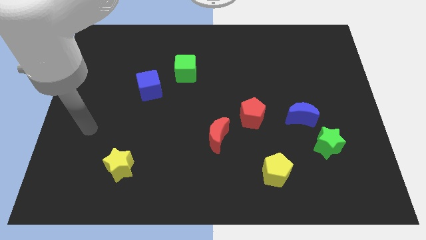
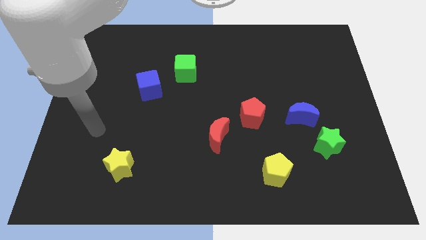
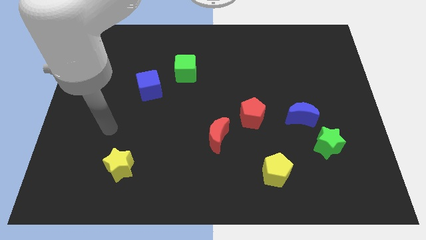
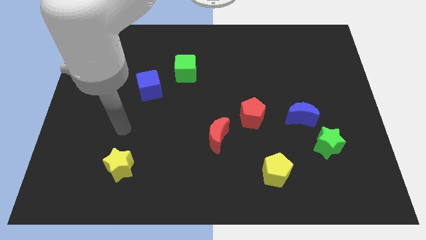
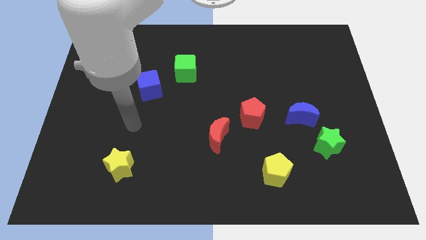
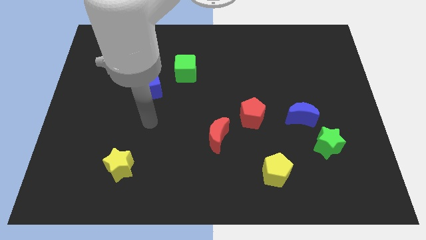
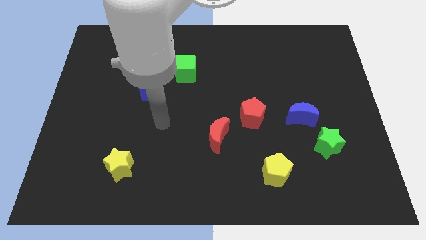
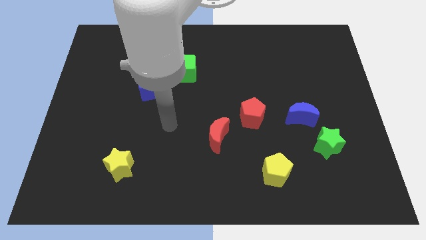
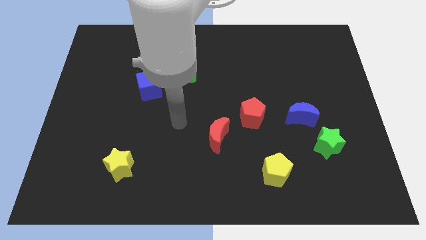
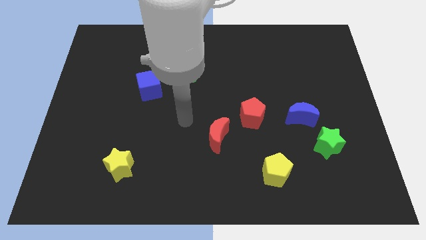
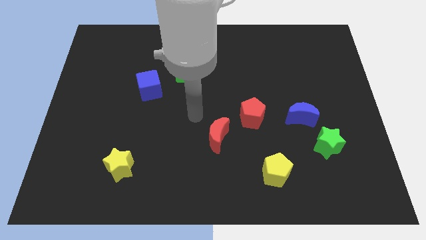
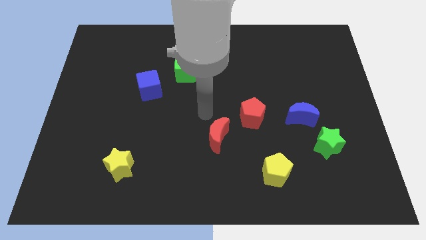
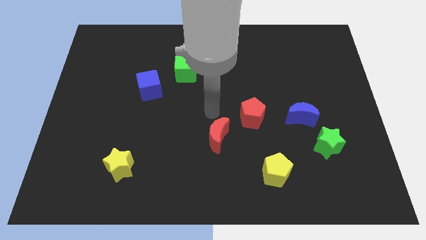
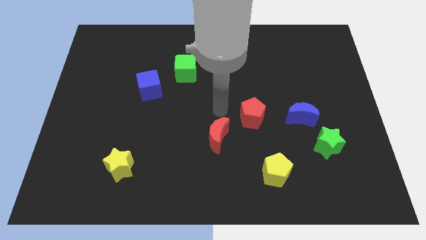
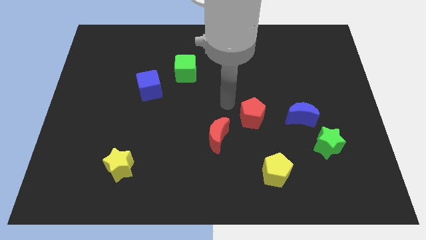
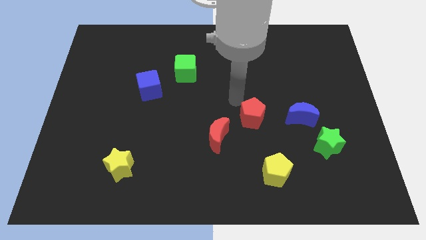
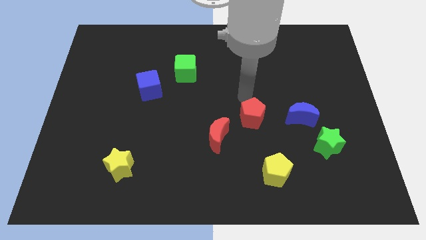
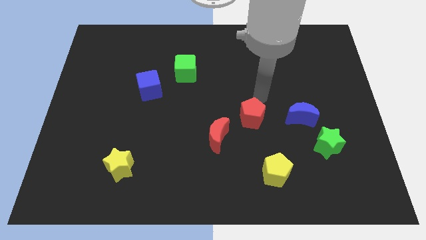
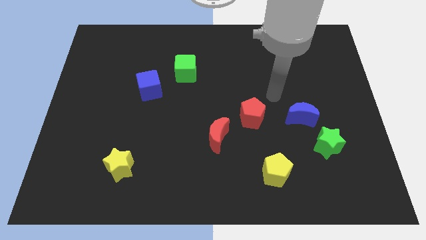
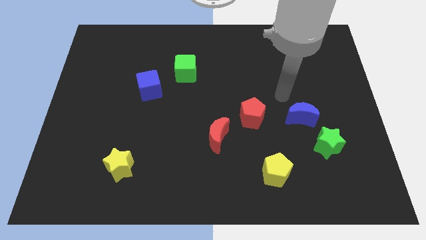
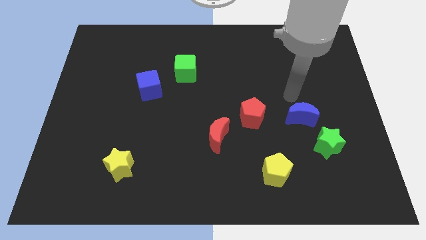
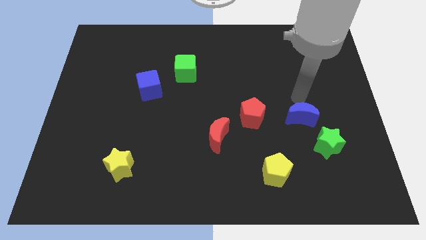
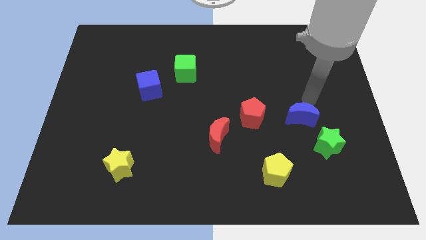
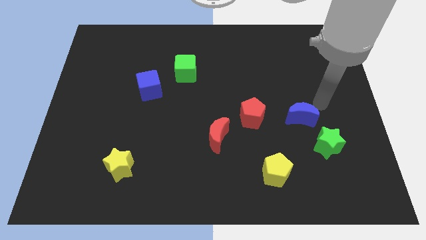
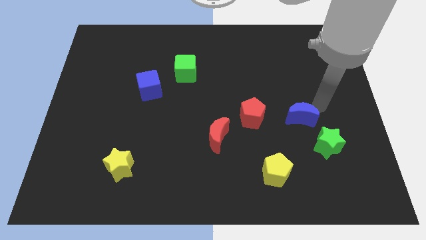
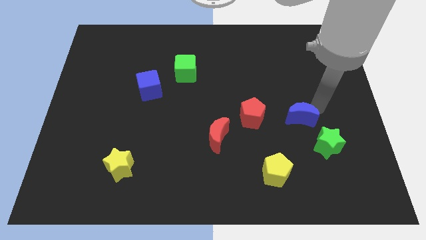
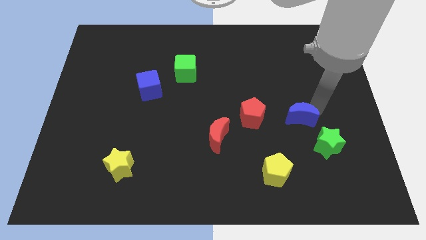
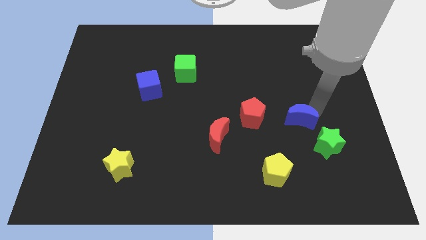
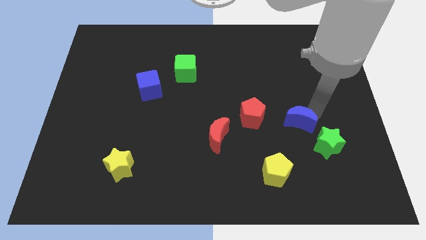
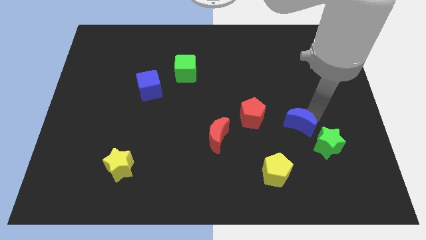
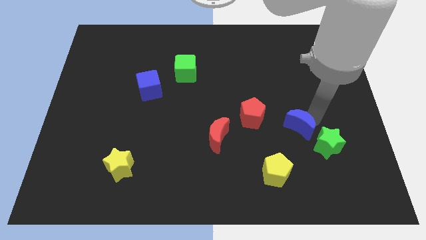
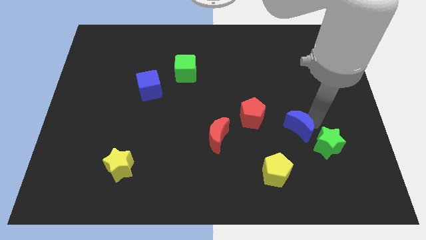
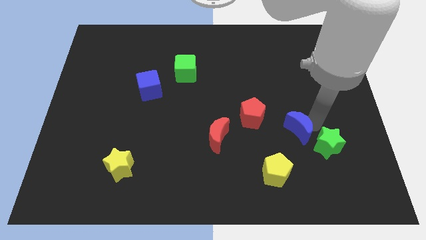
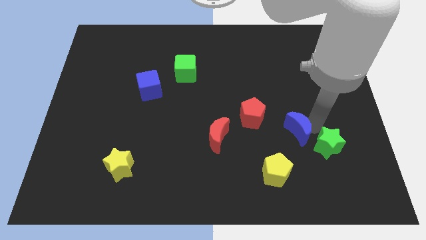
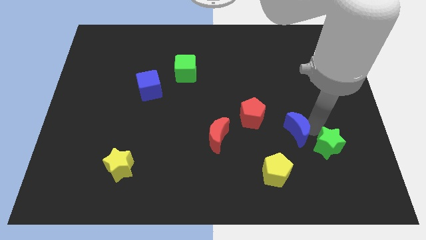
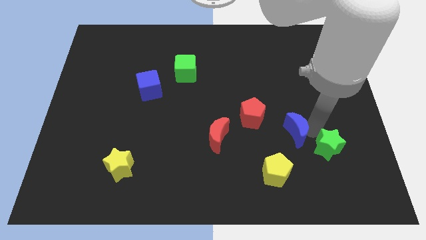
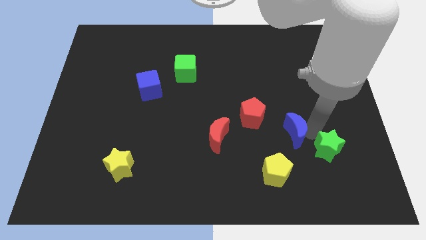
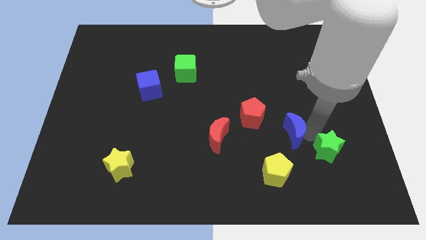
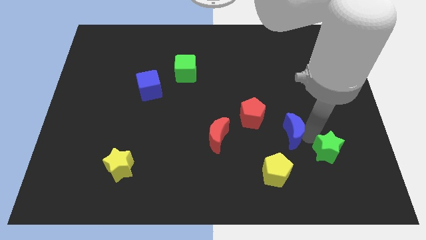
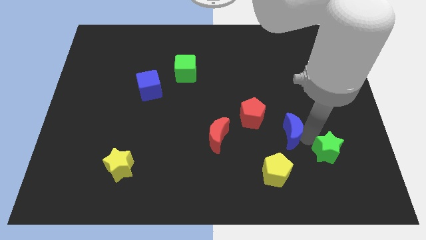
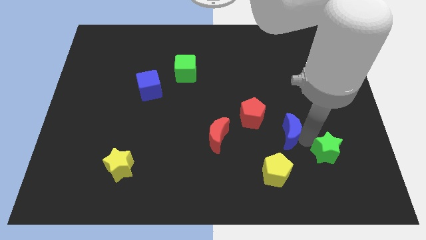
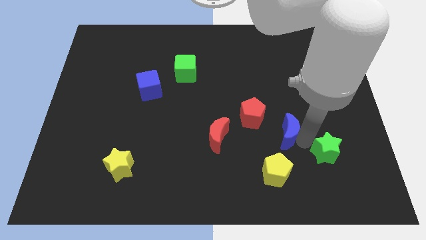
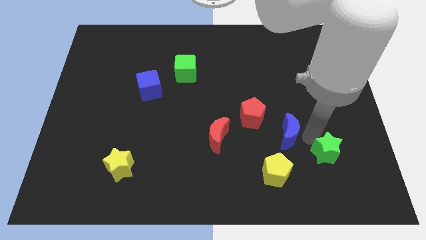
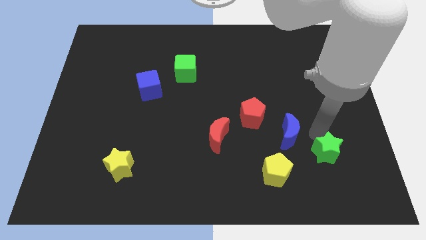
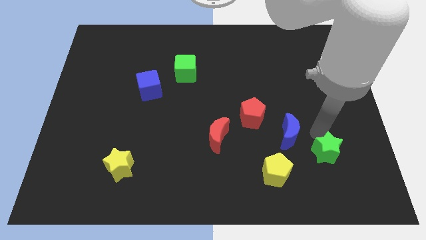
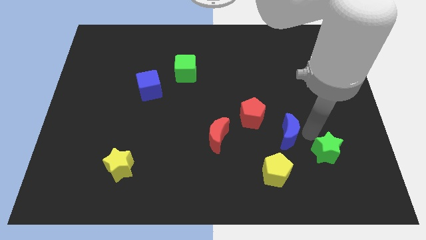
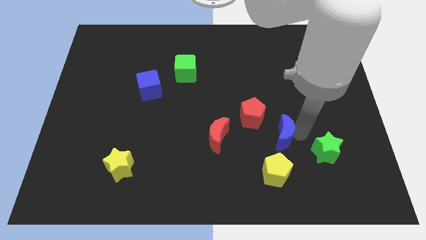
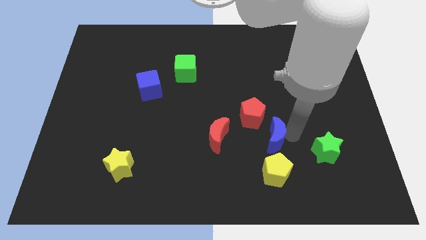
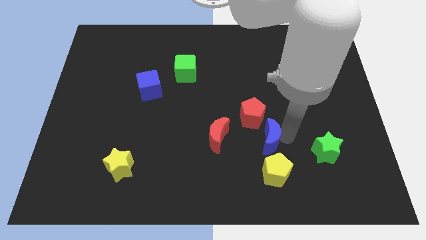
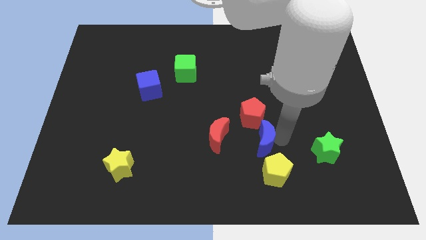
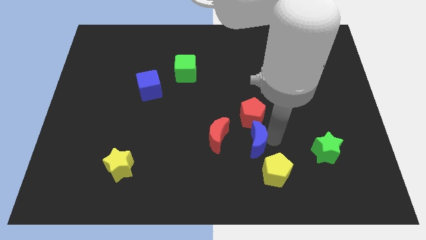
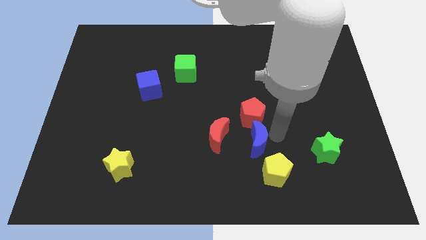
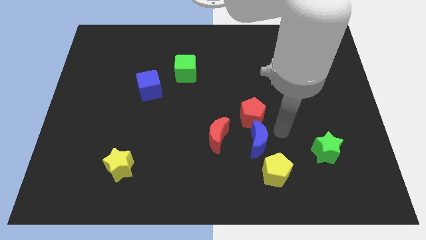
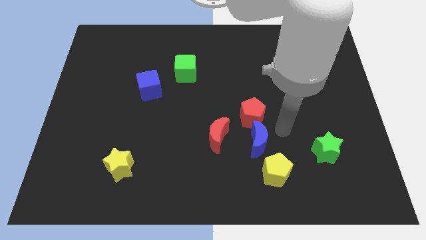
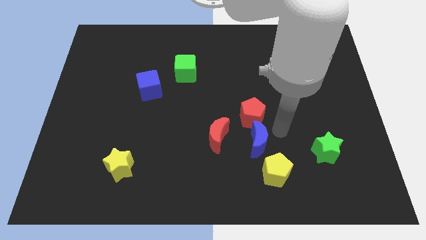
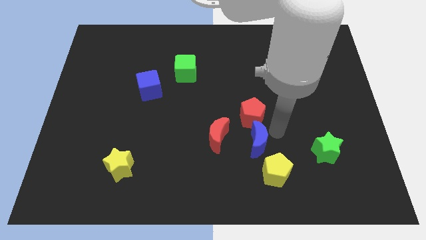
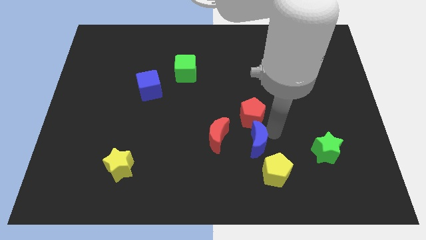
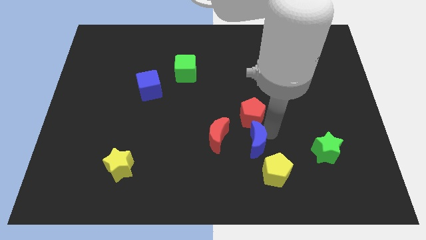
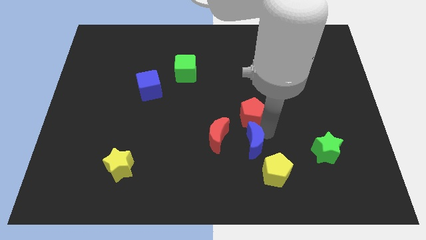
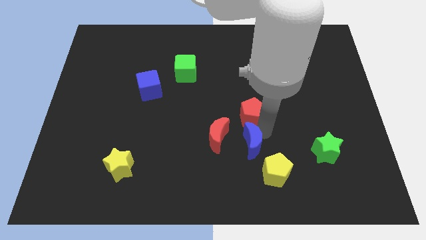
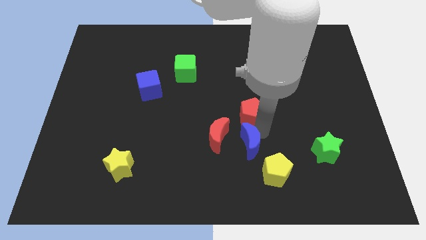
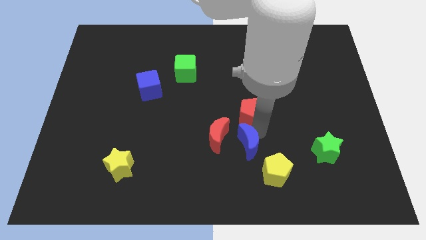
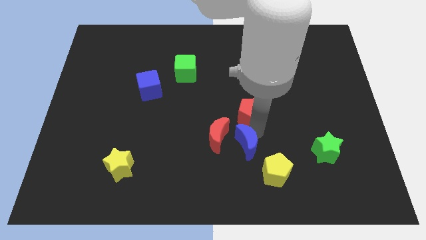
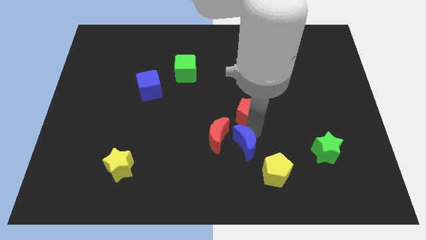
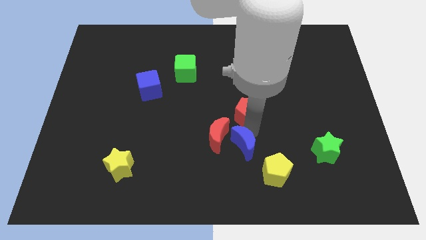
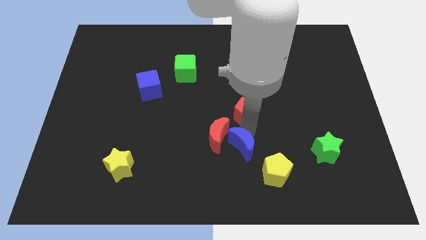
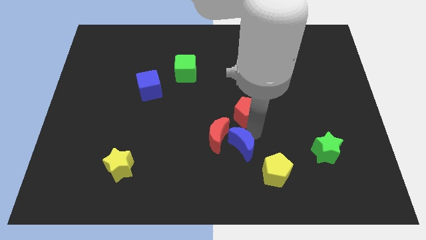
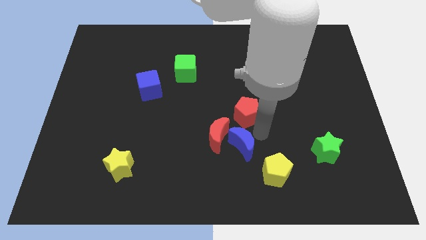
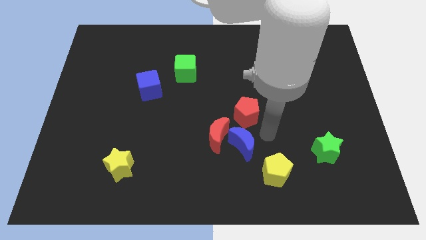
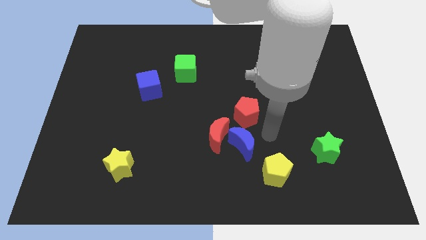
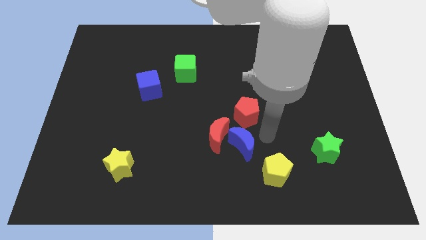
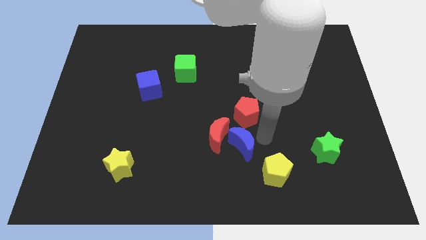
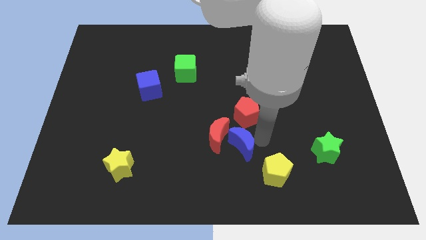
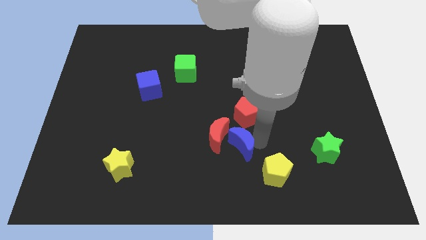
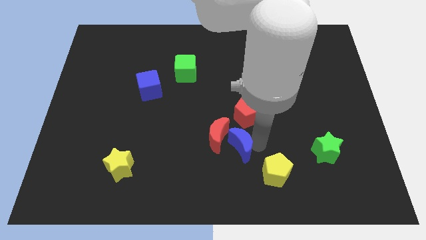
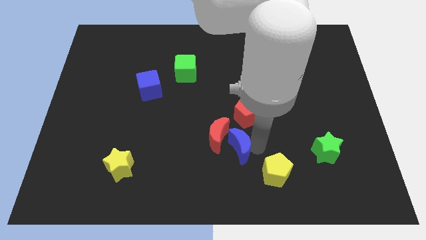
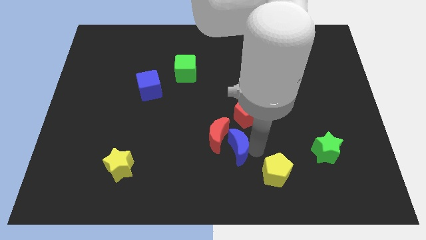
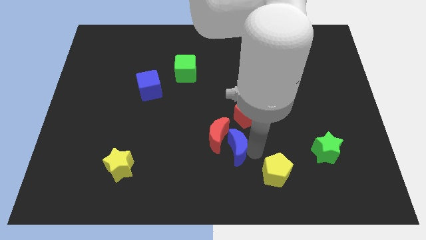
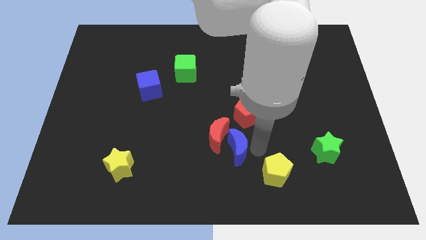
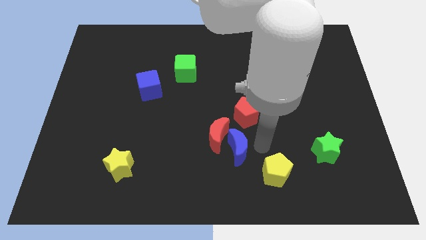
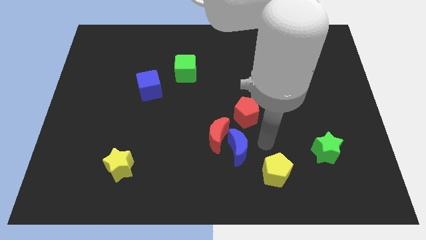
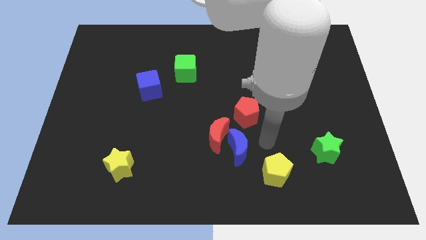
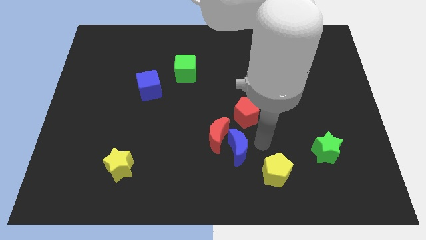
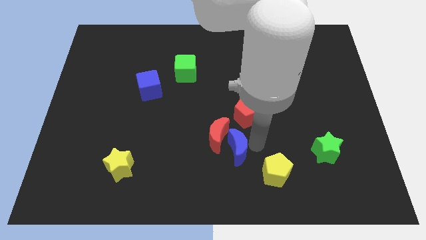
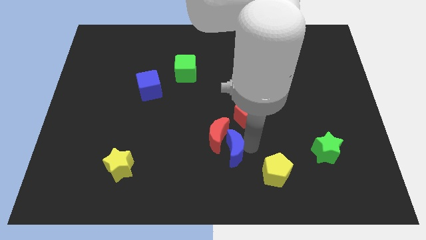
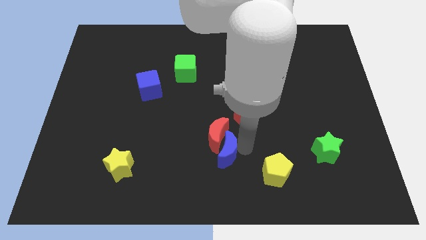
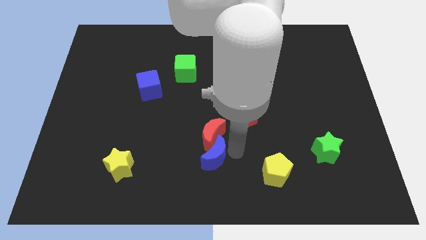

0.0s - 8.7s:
push the blue moon to the bottom left side of the red moon
